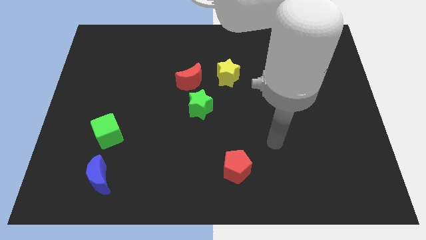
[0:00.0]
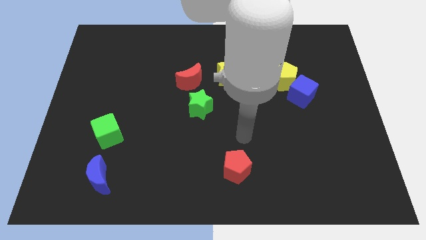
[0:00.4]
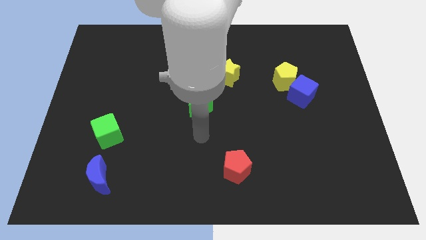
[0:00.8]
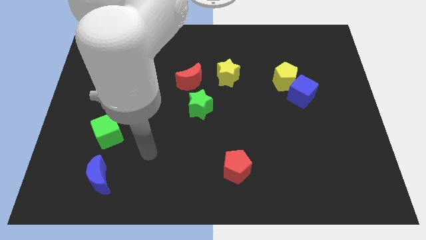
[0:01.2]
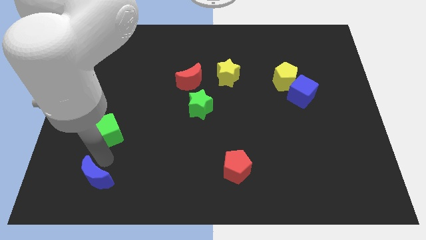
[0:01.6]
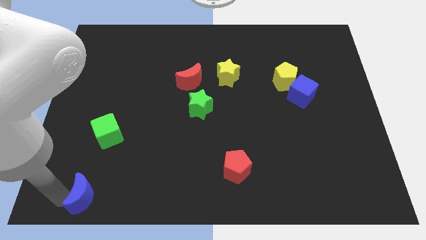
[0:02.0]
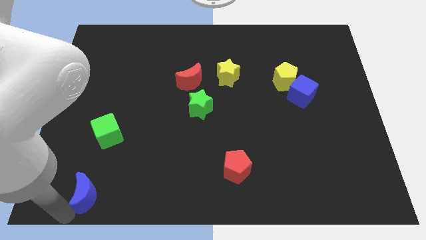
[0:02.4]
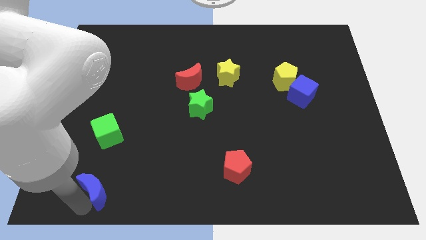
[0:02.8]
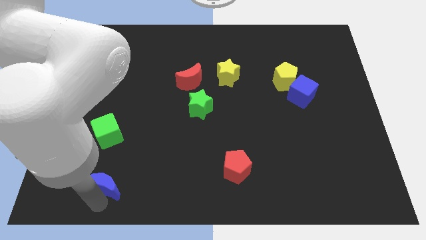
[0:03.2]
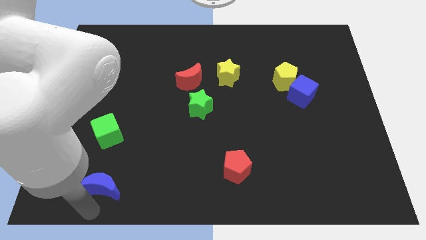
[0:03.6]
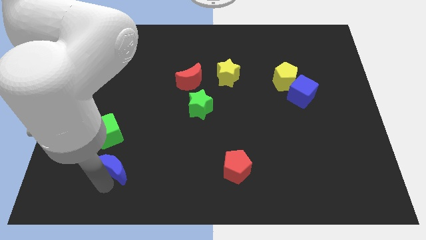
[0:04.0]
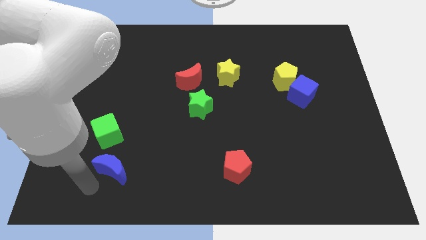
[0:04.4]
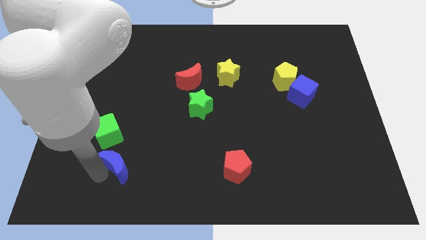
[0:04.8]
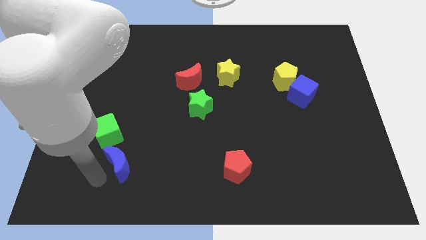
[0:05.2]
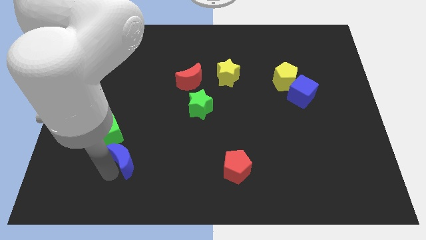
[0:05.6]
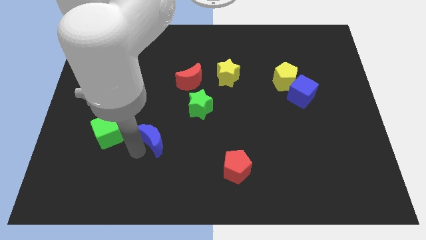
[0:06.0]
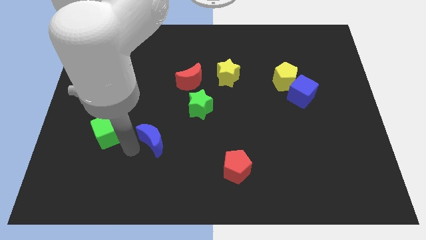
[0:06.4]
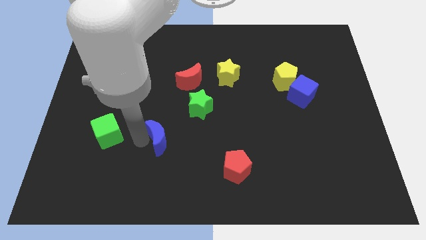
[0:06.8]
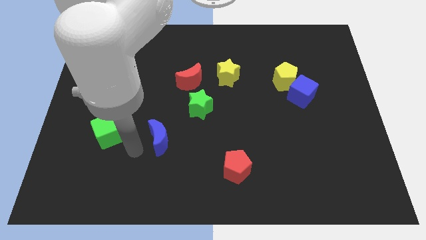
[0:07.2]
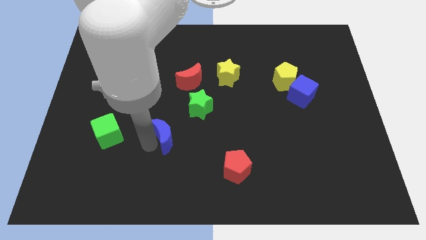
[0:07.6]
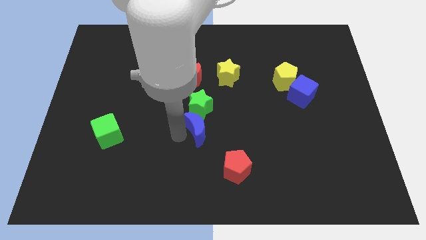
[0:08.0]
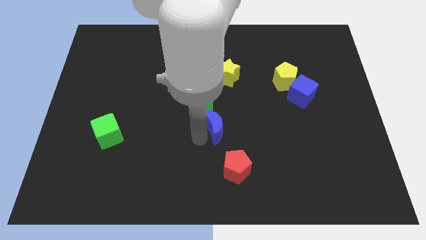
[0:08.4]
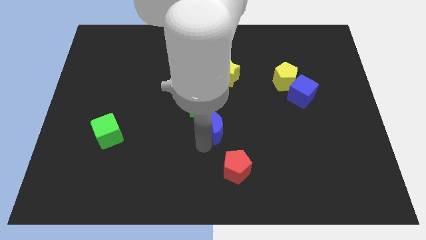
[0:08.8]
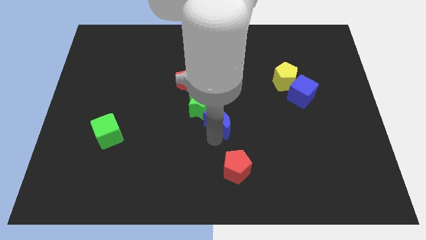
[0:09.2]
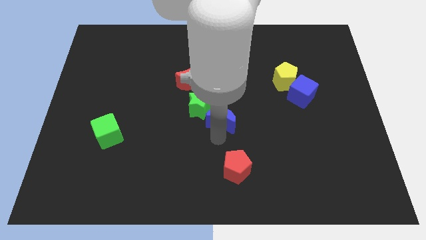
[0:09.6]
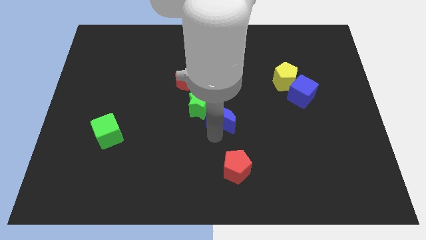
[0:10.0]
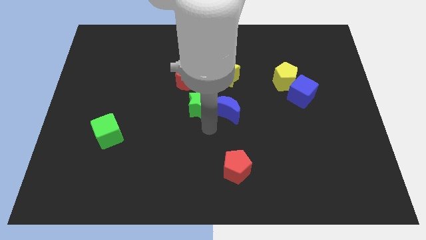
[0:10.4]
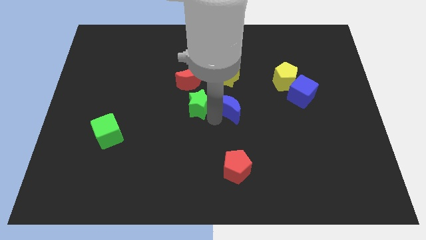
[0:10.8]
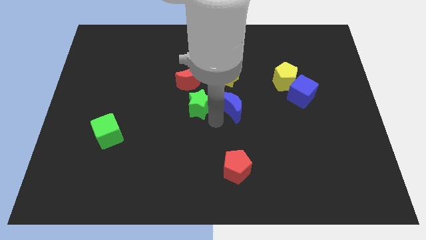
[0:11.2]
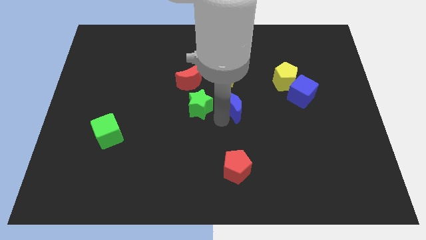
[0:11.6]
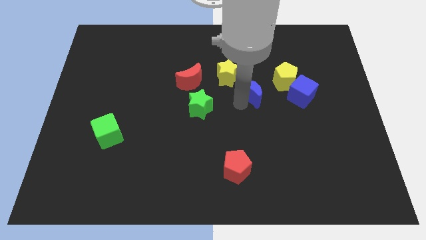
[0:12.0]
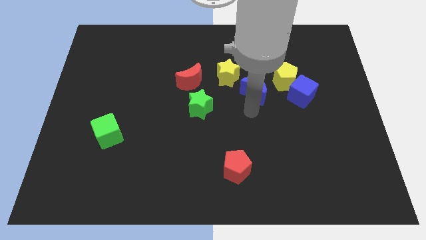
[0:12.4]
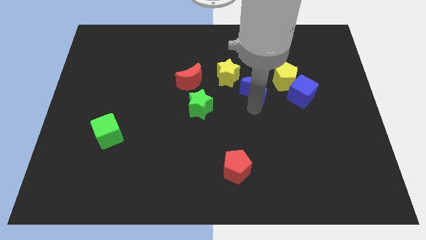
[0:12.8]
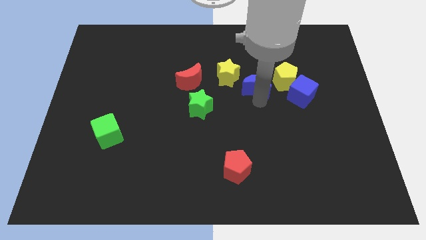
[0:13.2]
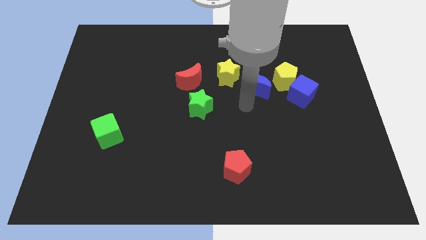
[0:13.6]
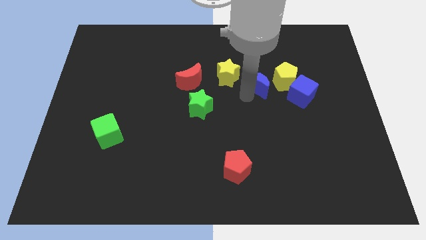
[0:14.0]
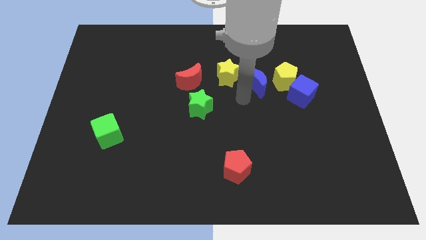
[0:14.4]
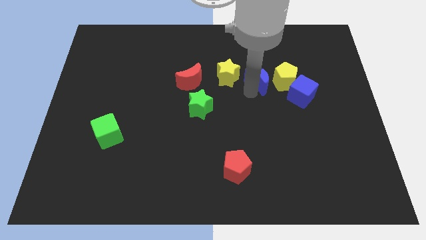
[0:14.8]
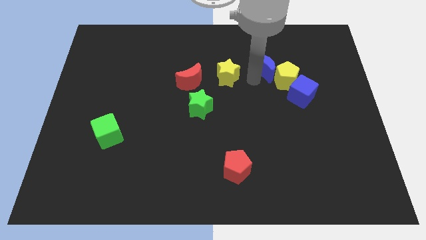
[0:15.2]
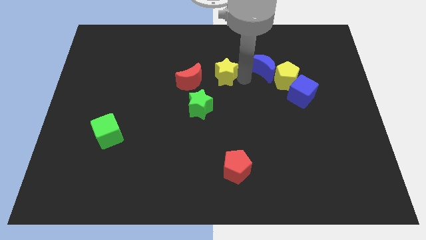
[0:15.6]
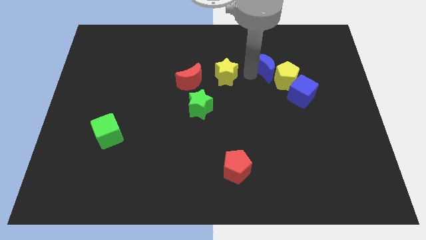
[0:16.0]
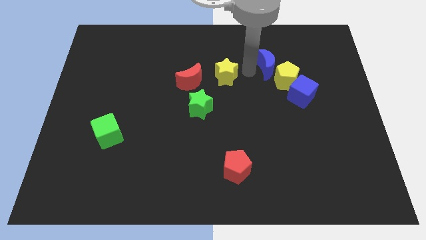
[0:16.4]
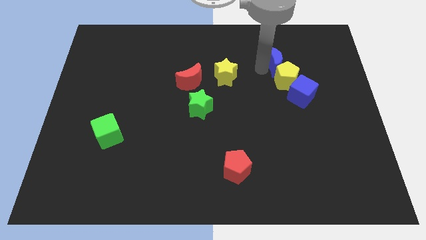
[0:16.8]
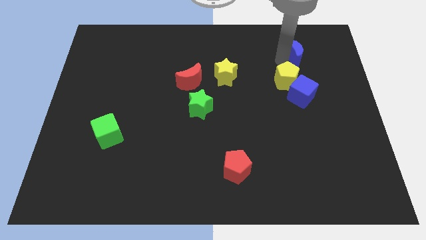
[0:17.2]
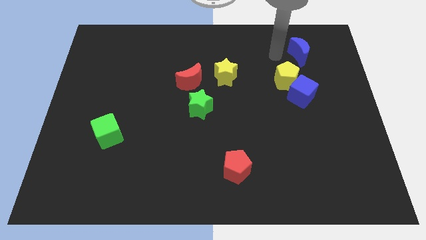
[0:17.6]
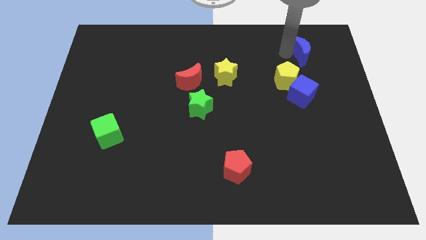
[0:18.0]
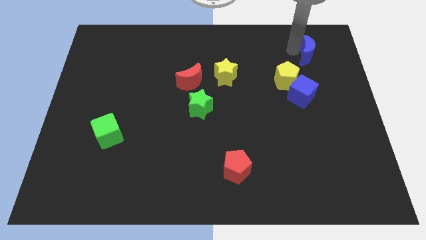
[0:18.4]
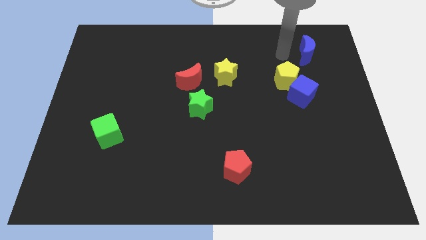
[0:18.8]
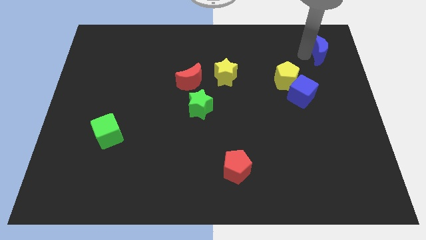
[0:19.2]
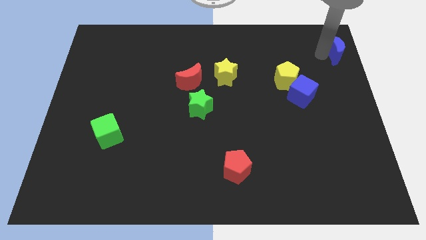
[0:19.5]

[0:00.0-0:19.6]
move the blue moon to the top right of the board

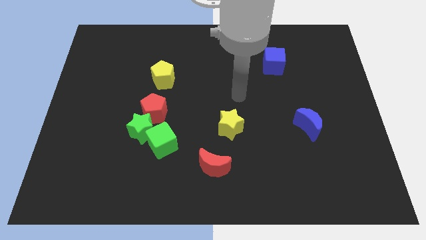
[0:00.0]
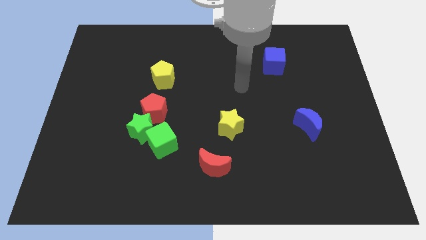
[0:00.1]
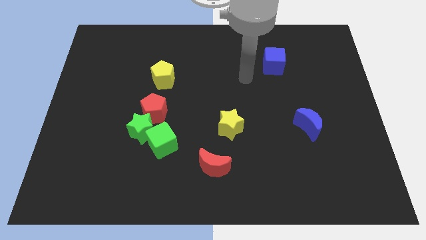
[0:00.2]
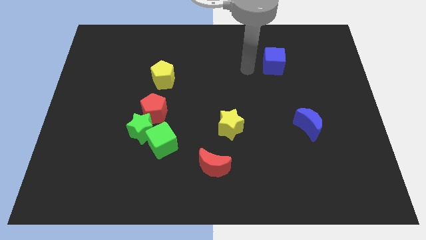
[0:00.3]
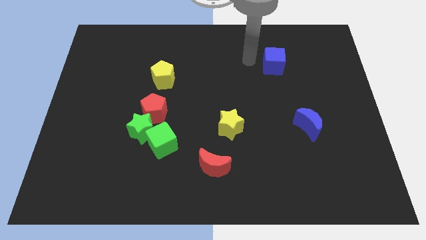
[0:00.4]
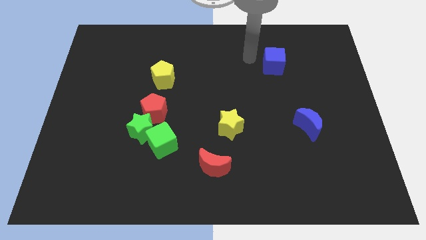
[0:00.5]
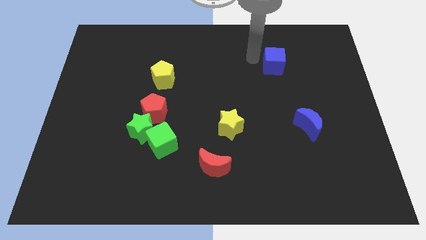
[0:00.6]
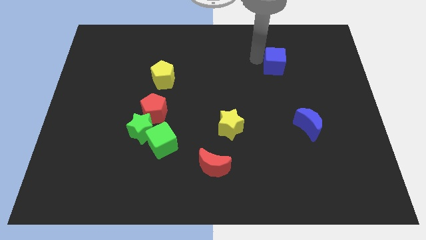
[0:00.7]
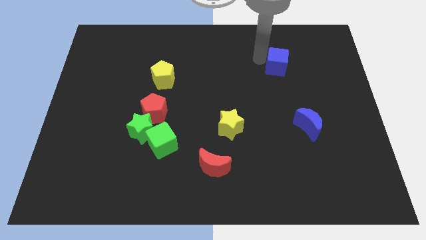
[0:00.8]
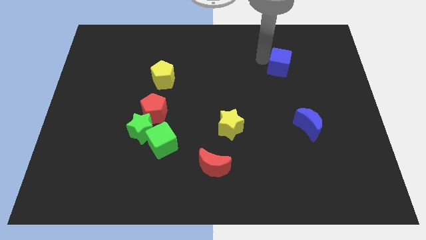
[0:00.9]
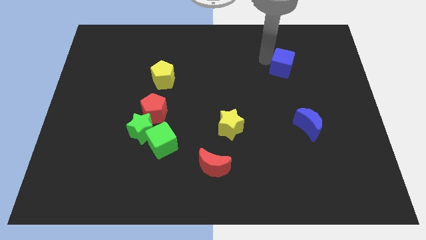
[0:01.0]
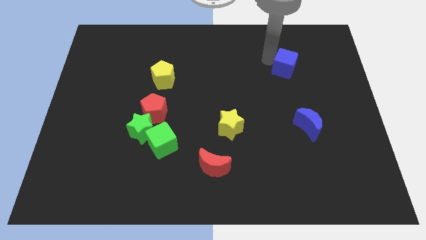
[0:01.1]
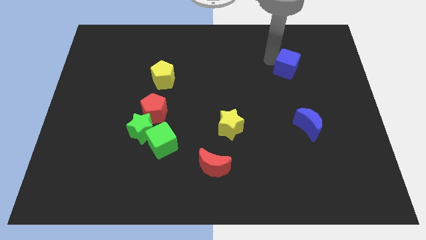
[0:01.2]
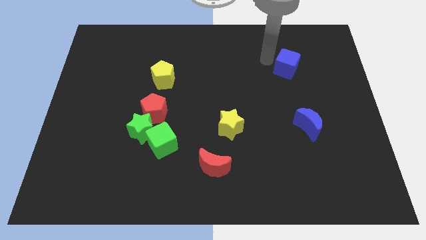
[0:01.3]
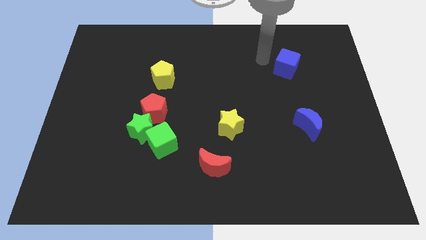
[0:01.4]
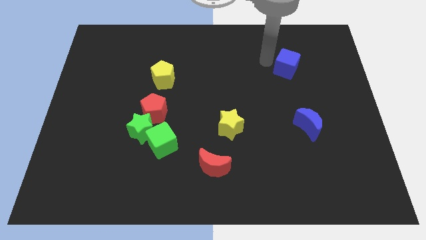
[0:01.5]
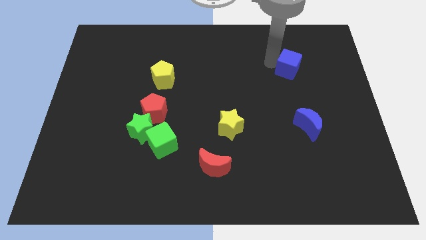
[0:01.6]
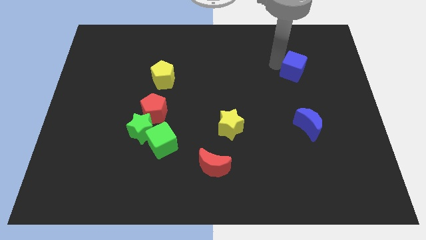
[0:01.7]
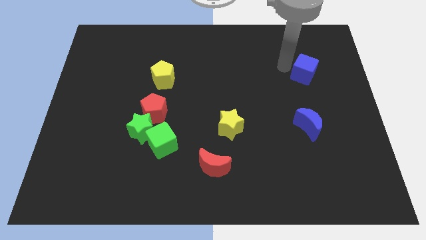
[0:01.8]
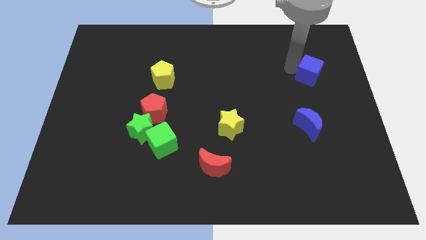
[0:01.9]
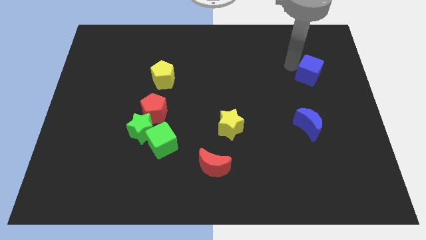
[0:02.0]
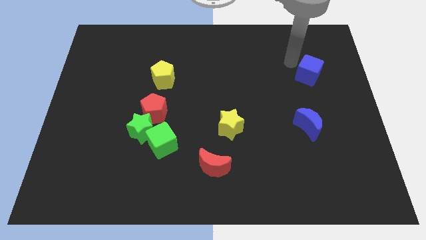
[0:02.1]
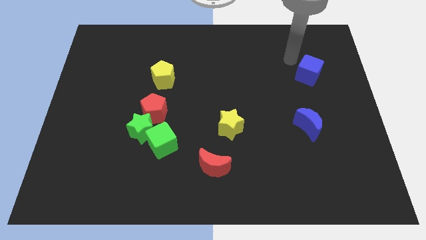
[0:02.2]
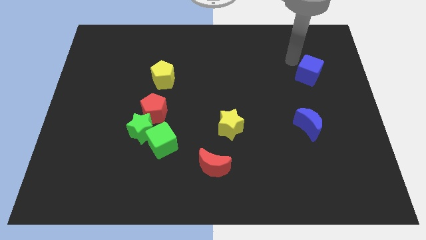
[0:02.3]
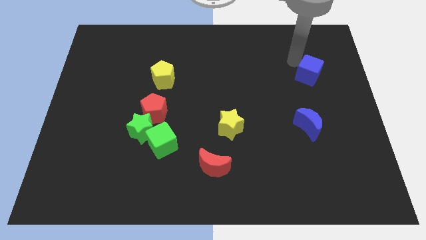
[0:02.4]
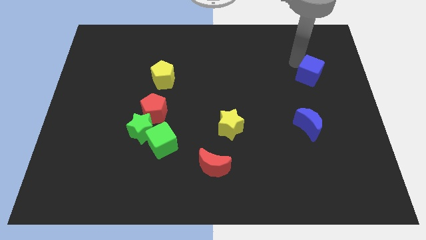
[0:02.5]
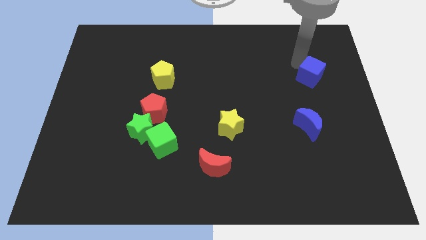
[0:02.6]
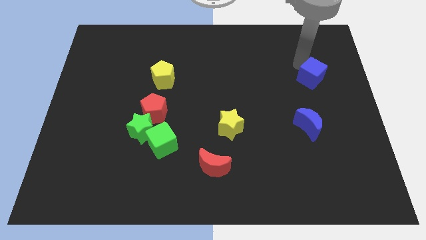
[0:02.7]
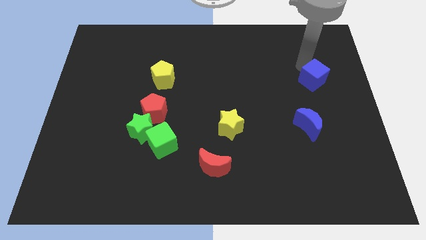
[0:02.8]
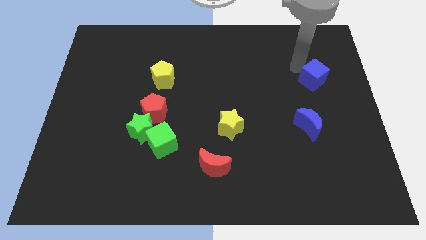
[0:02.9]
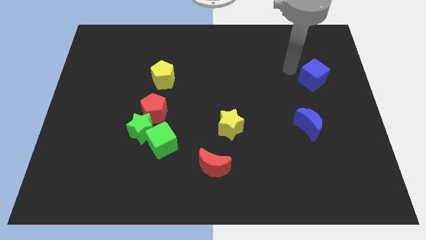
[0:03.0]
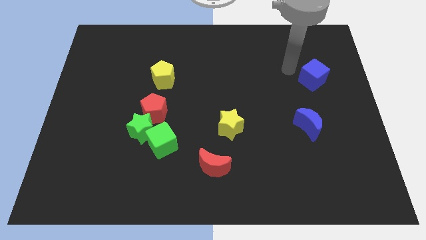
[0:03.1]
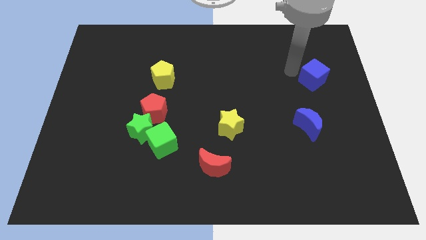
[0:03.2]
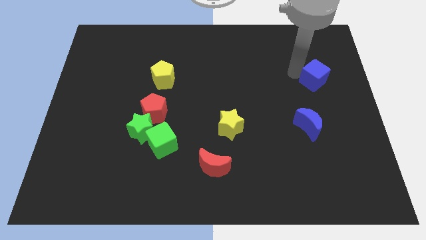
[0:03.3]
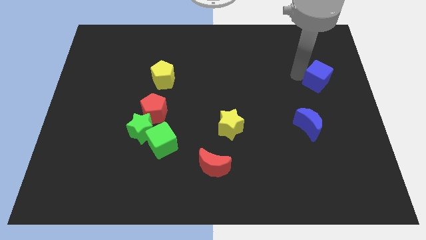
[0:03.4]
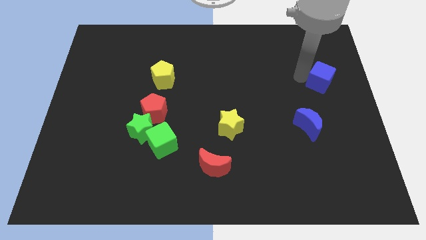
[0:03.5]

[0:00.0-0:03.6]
push the blue cube to the right side
